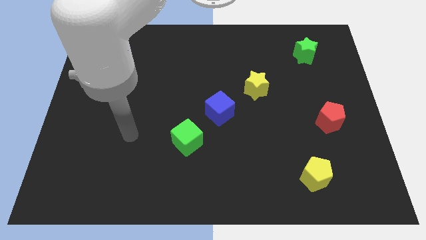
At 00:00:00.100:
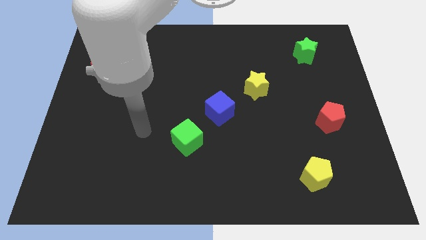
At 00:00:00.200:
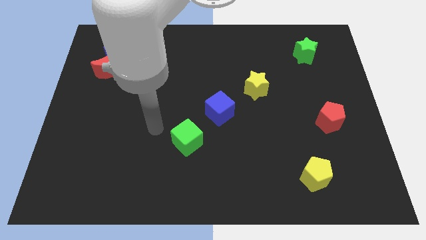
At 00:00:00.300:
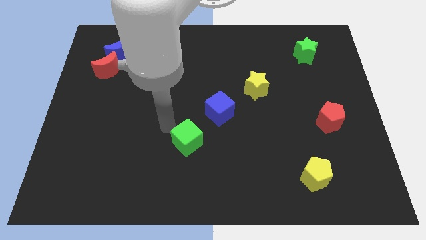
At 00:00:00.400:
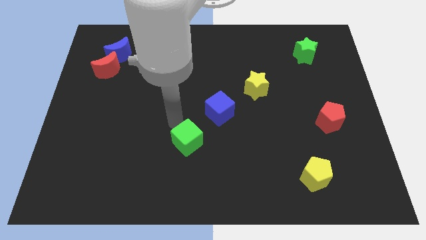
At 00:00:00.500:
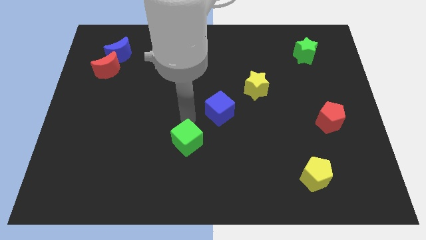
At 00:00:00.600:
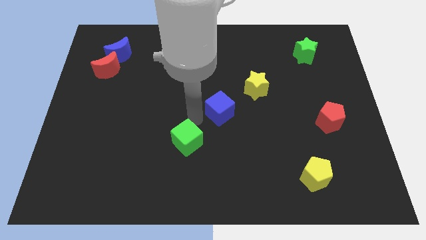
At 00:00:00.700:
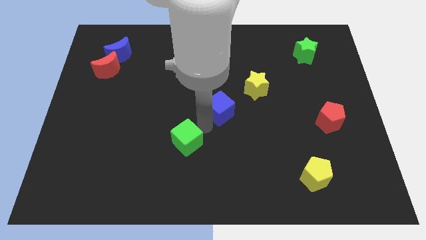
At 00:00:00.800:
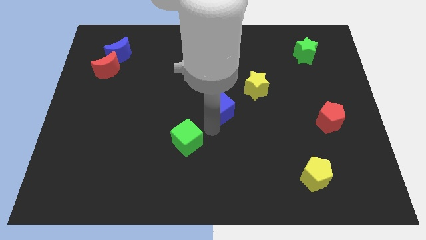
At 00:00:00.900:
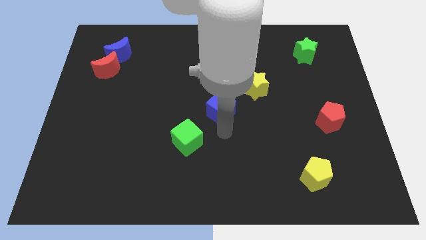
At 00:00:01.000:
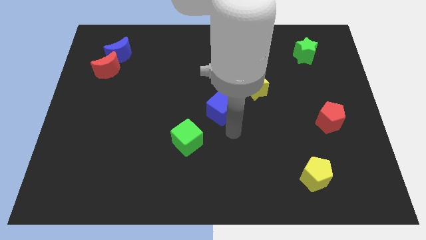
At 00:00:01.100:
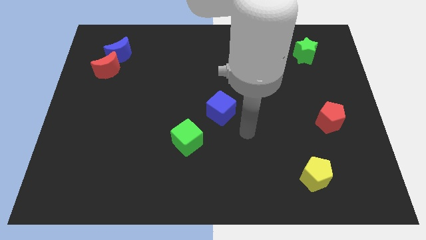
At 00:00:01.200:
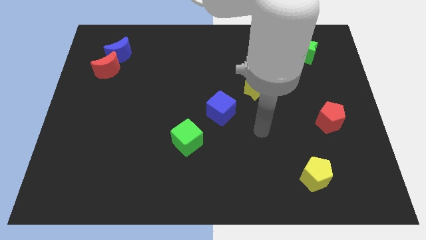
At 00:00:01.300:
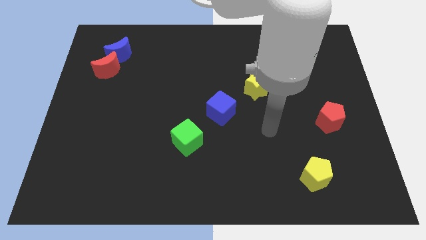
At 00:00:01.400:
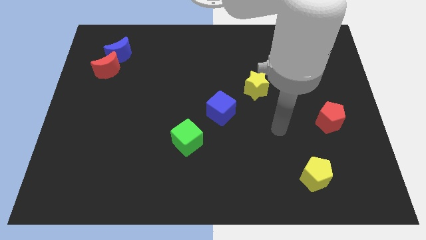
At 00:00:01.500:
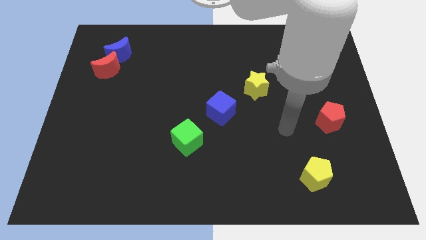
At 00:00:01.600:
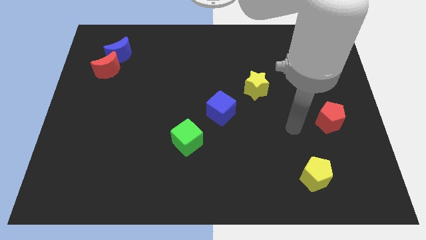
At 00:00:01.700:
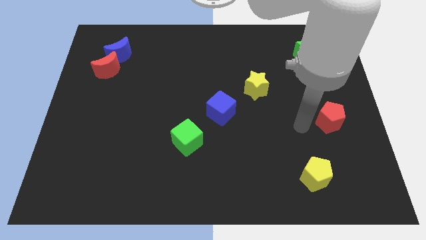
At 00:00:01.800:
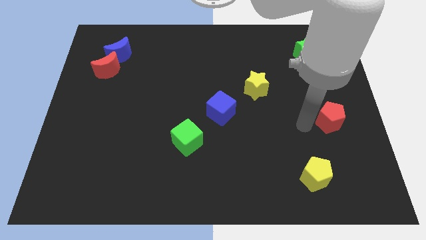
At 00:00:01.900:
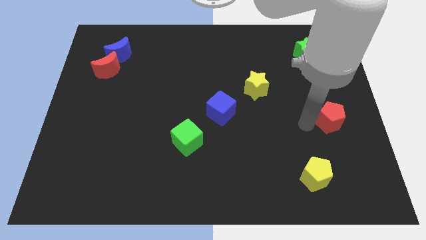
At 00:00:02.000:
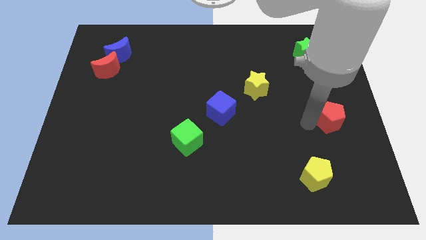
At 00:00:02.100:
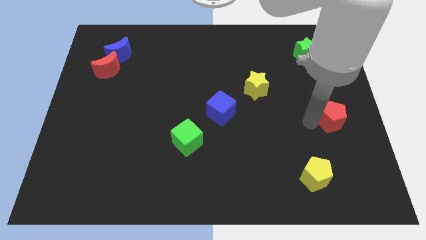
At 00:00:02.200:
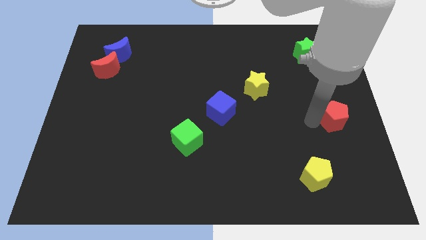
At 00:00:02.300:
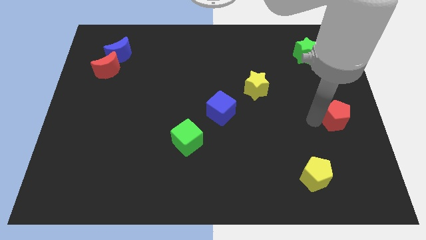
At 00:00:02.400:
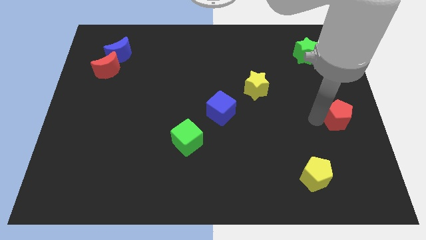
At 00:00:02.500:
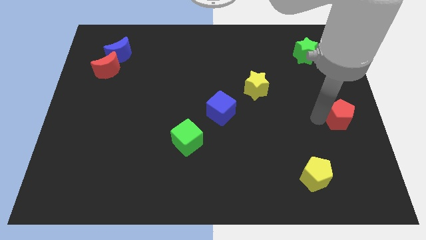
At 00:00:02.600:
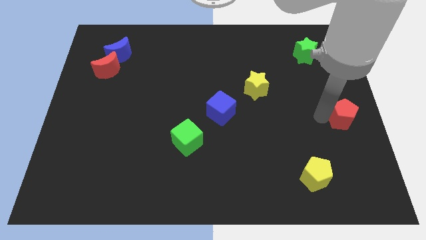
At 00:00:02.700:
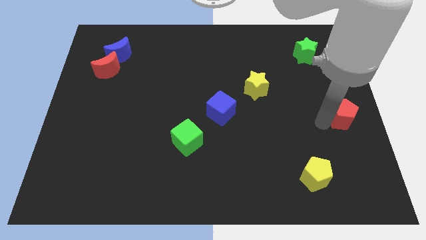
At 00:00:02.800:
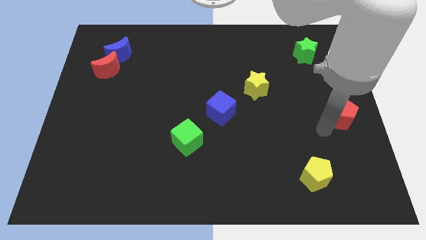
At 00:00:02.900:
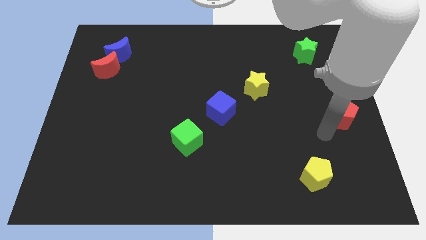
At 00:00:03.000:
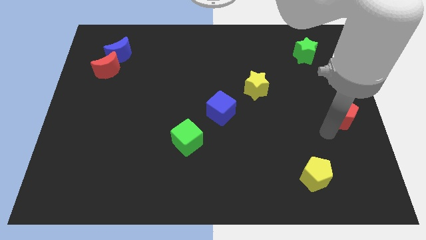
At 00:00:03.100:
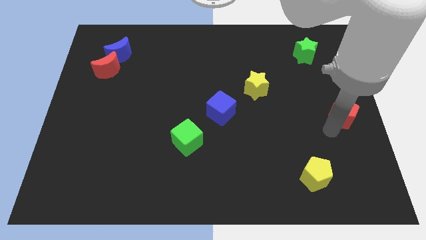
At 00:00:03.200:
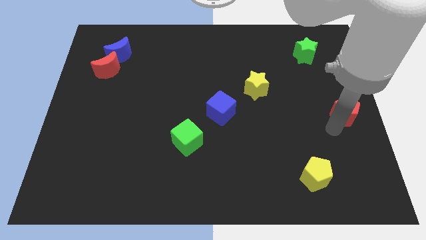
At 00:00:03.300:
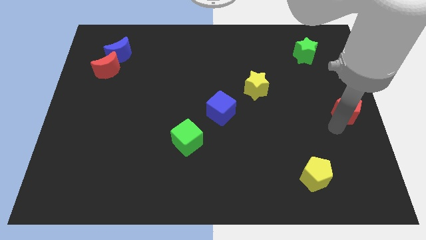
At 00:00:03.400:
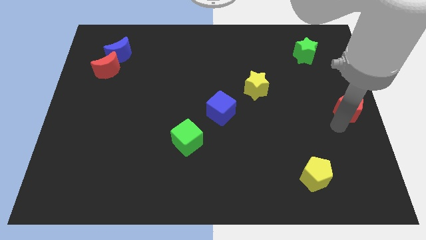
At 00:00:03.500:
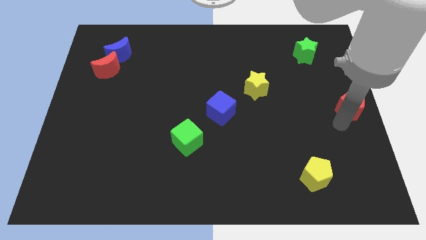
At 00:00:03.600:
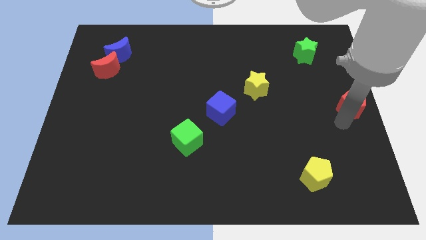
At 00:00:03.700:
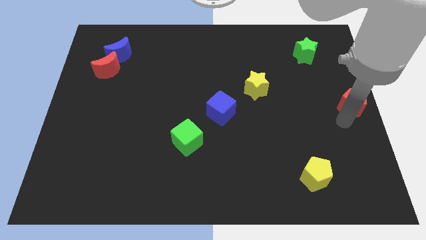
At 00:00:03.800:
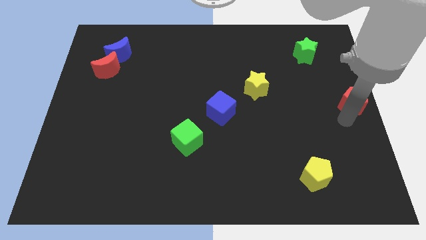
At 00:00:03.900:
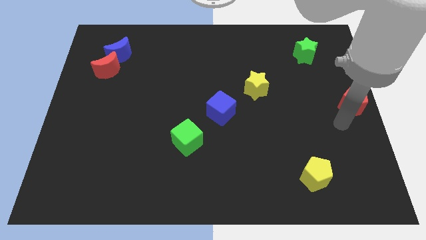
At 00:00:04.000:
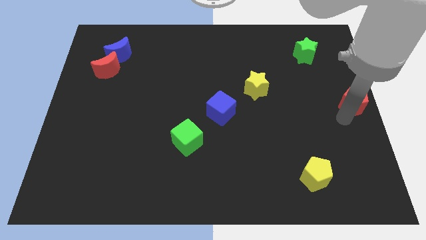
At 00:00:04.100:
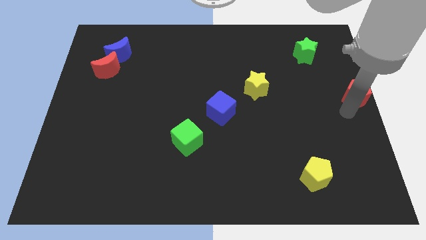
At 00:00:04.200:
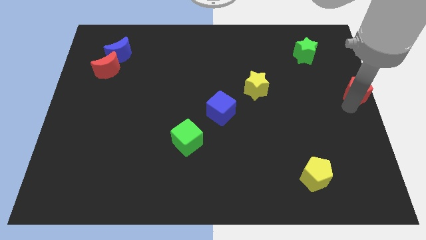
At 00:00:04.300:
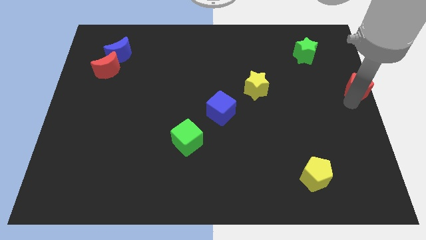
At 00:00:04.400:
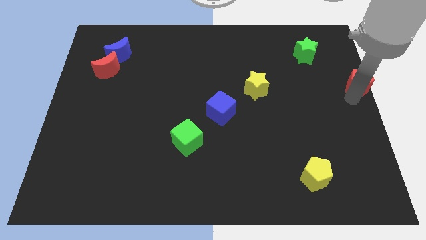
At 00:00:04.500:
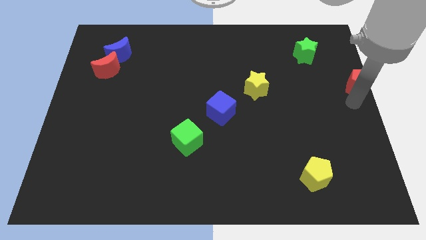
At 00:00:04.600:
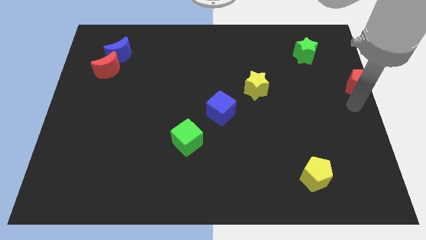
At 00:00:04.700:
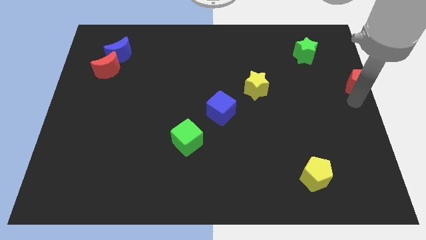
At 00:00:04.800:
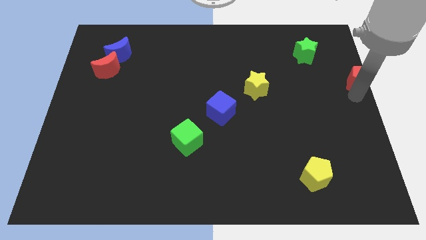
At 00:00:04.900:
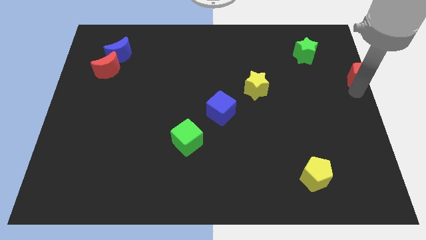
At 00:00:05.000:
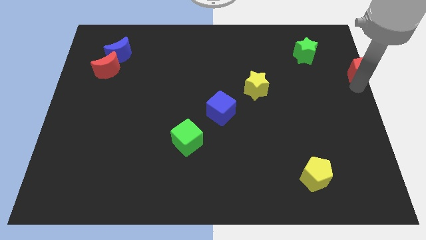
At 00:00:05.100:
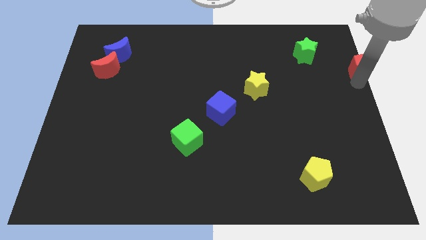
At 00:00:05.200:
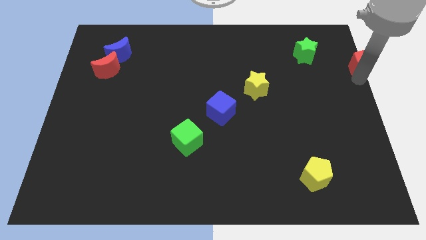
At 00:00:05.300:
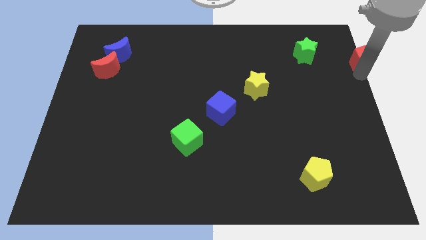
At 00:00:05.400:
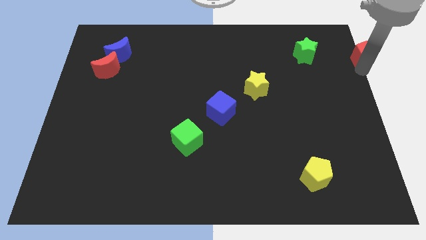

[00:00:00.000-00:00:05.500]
put the red pentagon to the upper right corner

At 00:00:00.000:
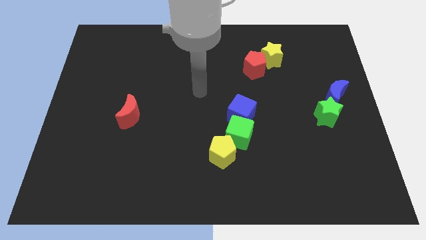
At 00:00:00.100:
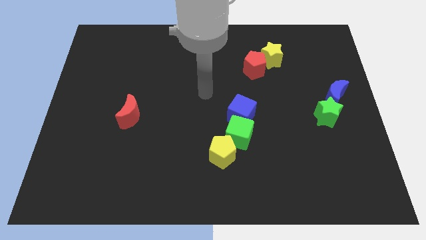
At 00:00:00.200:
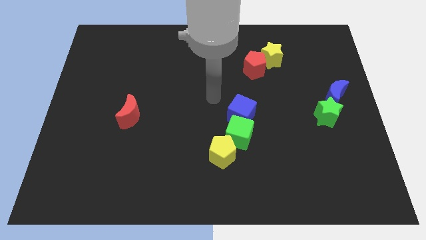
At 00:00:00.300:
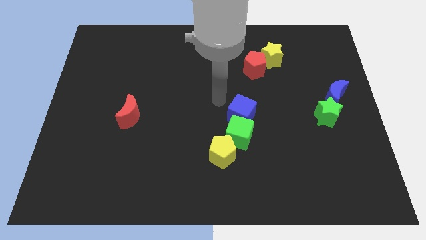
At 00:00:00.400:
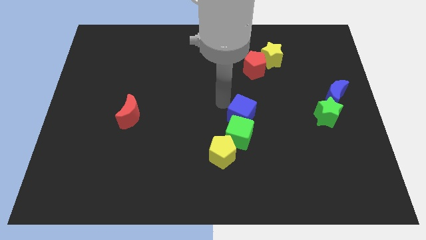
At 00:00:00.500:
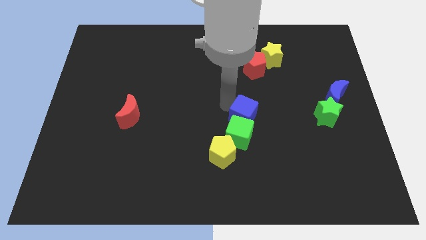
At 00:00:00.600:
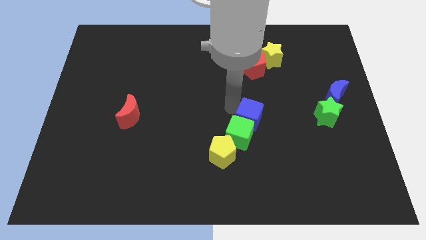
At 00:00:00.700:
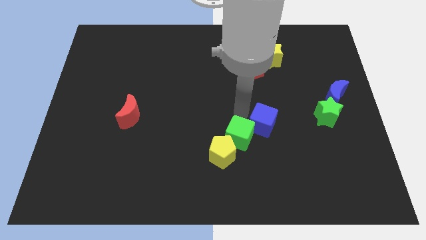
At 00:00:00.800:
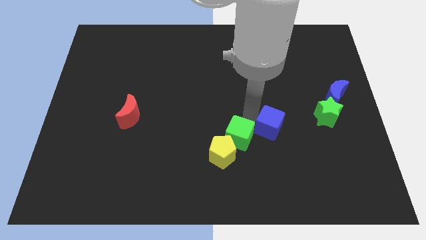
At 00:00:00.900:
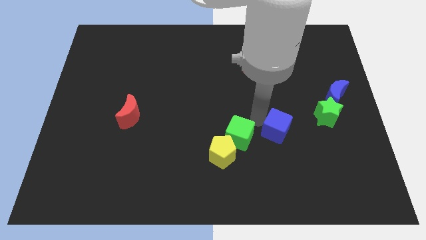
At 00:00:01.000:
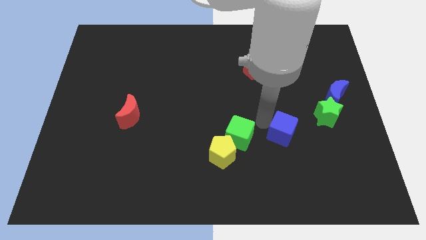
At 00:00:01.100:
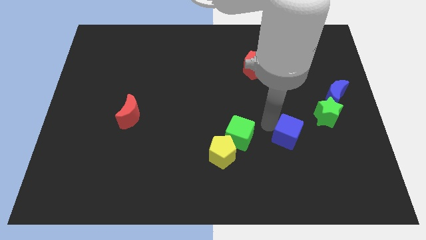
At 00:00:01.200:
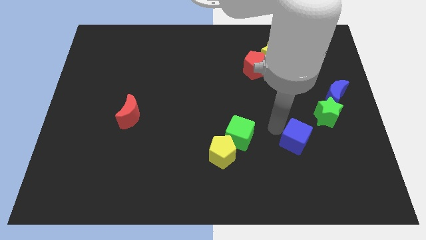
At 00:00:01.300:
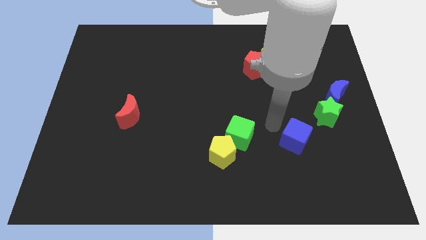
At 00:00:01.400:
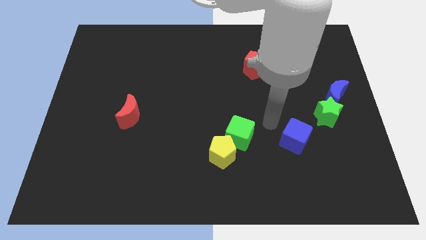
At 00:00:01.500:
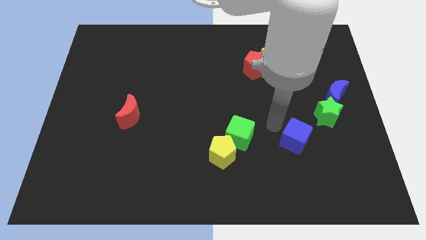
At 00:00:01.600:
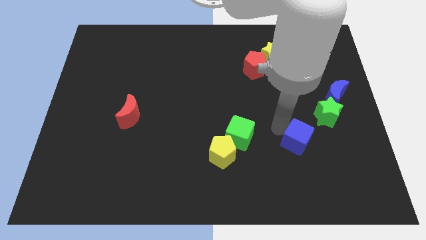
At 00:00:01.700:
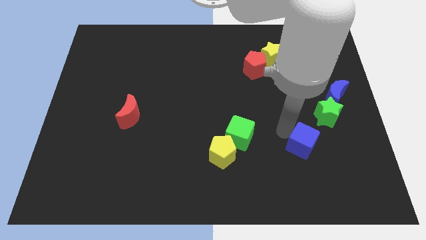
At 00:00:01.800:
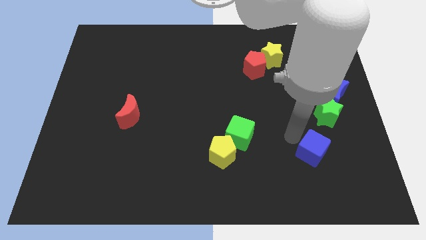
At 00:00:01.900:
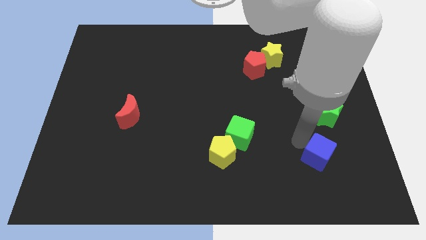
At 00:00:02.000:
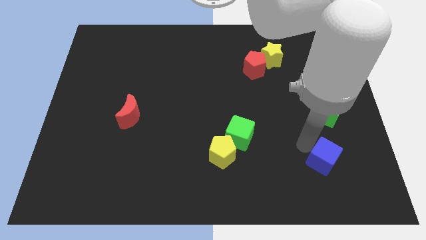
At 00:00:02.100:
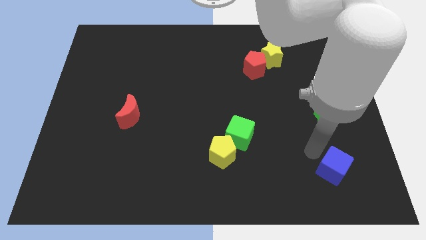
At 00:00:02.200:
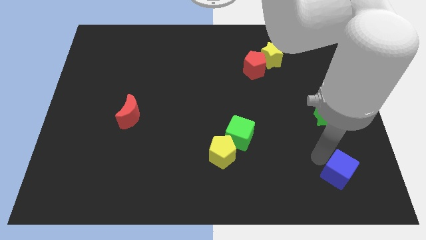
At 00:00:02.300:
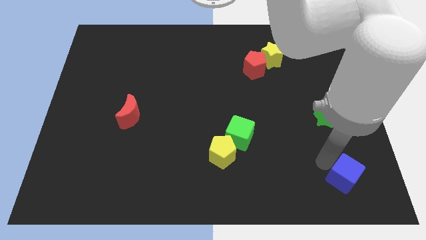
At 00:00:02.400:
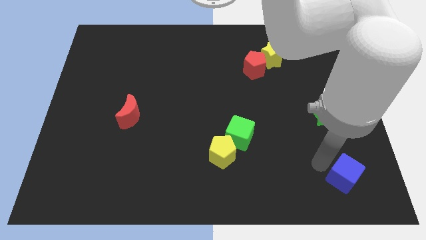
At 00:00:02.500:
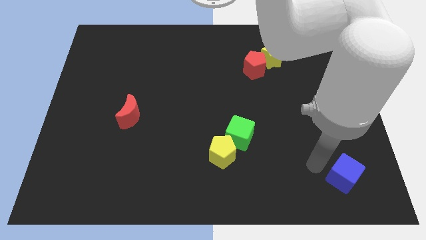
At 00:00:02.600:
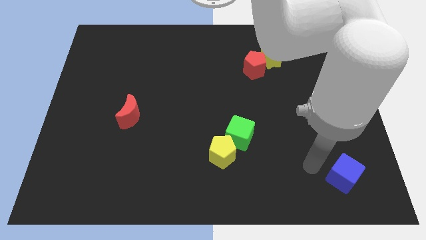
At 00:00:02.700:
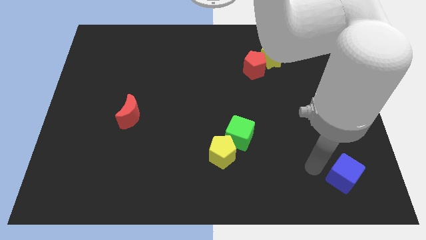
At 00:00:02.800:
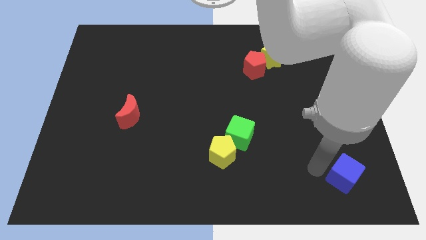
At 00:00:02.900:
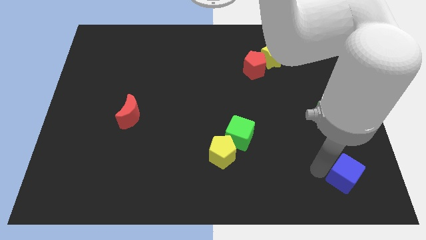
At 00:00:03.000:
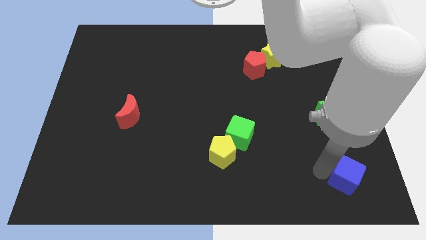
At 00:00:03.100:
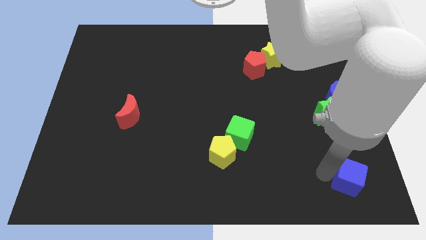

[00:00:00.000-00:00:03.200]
move the blue cube to the bottom right
